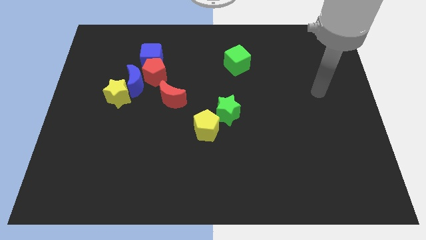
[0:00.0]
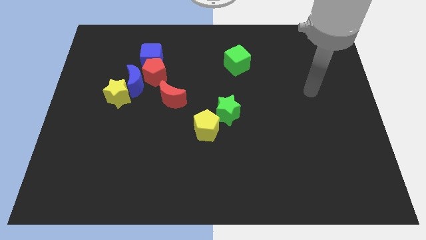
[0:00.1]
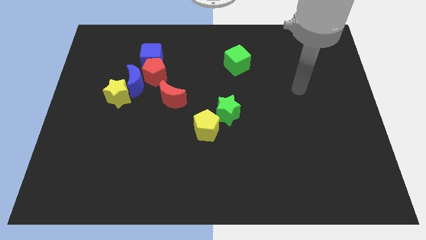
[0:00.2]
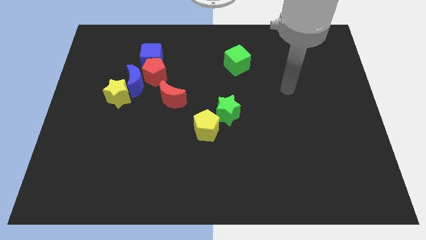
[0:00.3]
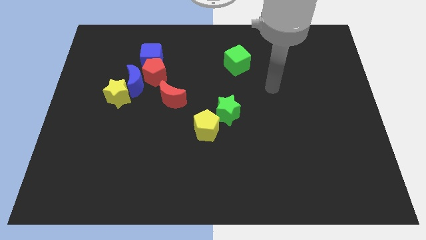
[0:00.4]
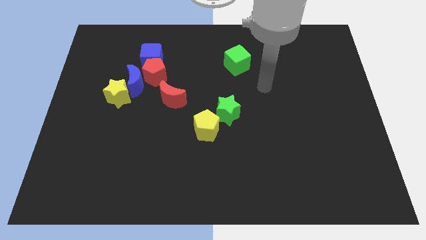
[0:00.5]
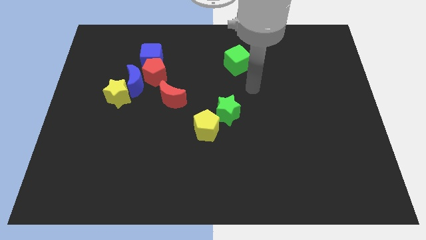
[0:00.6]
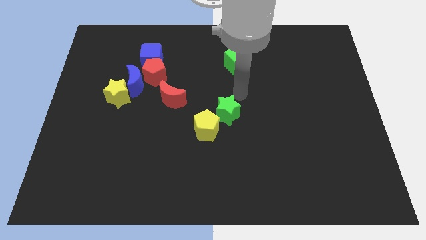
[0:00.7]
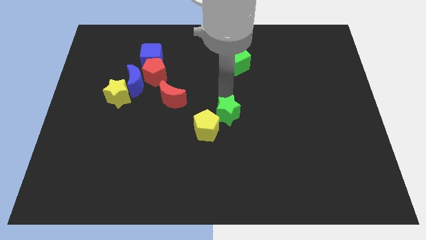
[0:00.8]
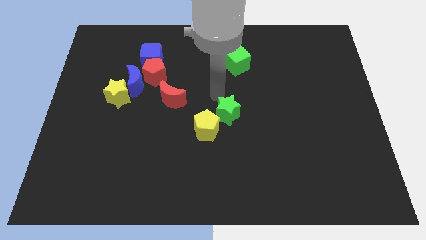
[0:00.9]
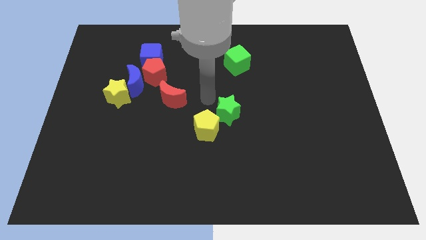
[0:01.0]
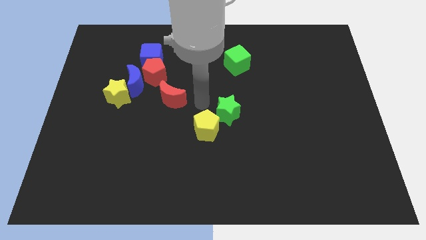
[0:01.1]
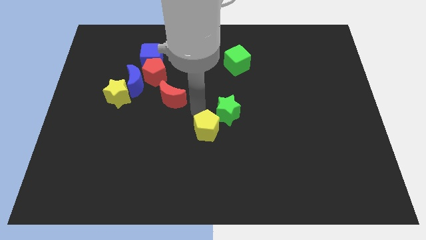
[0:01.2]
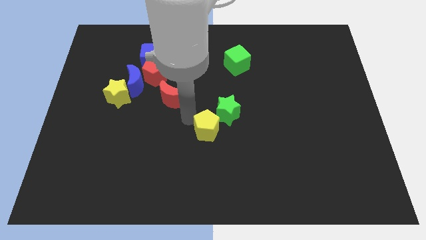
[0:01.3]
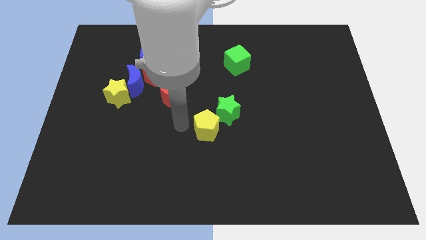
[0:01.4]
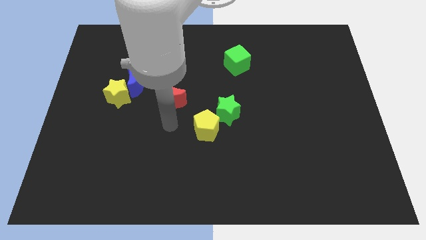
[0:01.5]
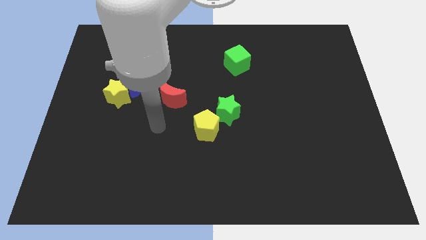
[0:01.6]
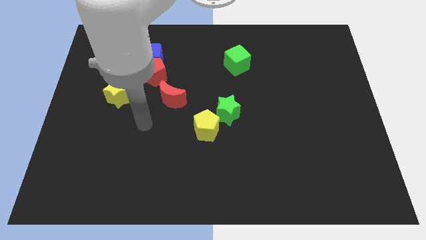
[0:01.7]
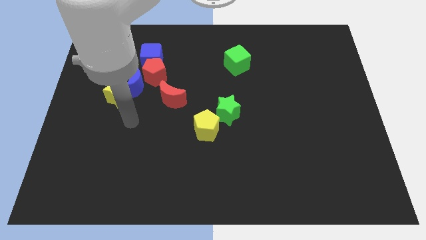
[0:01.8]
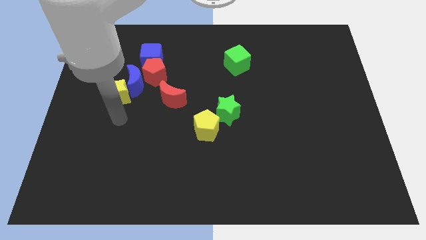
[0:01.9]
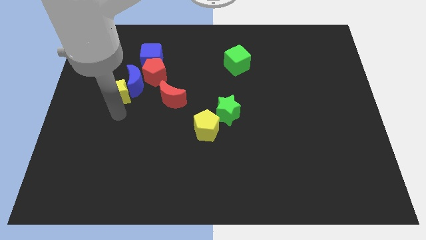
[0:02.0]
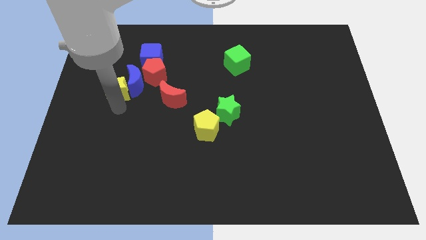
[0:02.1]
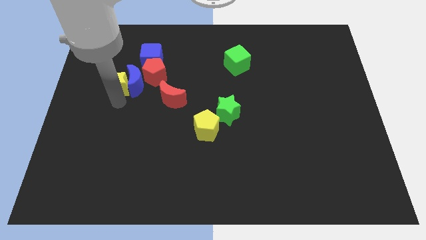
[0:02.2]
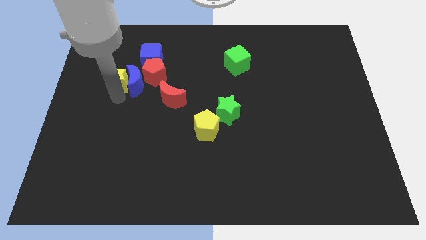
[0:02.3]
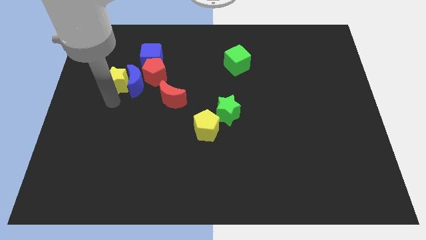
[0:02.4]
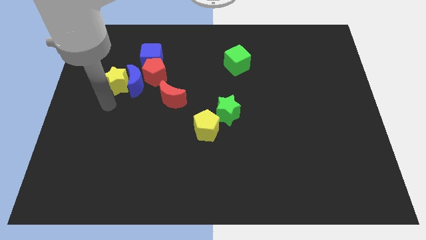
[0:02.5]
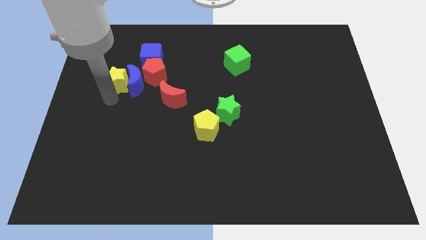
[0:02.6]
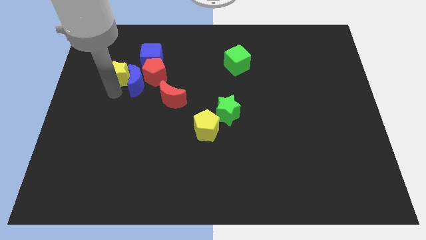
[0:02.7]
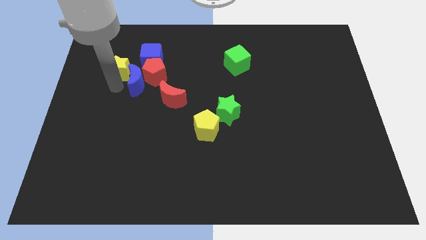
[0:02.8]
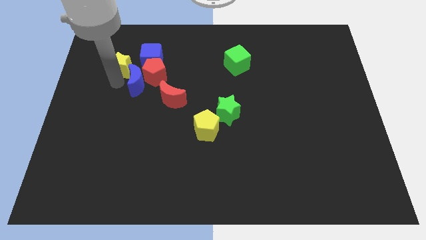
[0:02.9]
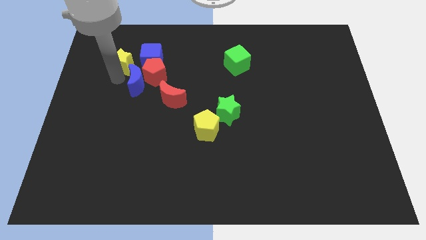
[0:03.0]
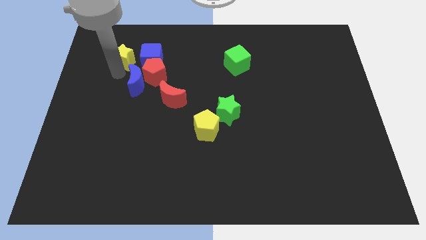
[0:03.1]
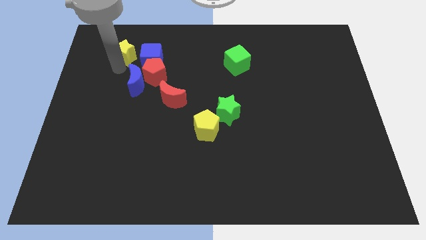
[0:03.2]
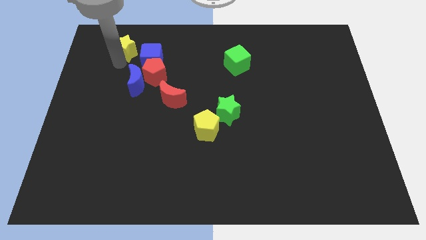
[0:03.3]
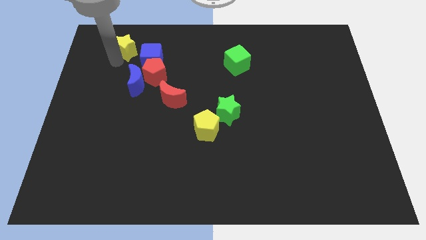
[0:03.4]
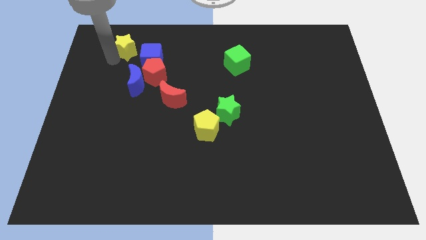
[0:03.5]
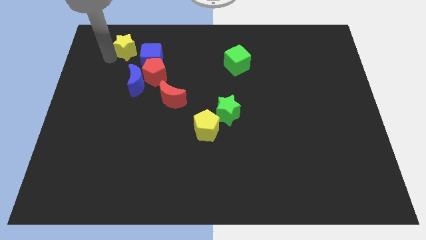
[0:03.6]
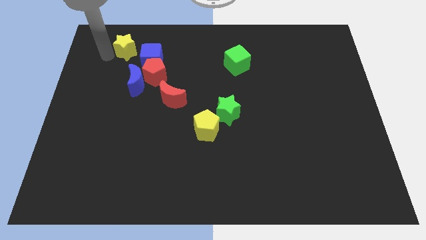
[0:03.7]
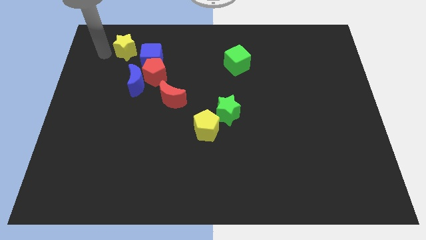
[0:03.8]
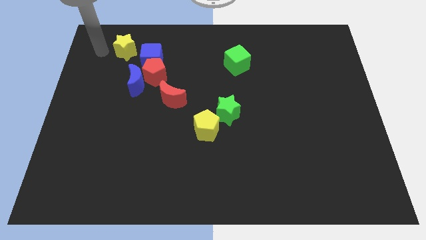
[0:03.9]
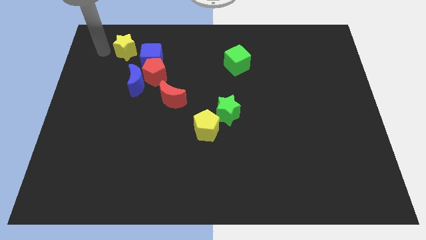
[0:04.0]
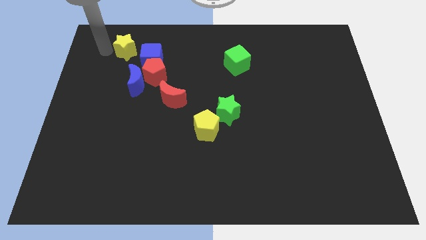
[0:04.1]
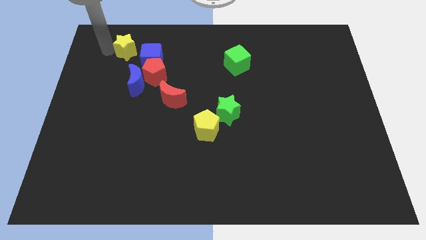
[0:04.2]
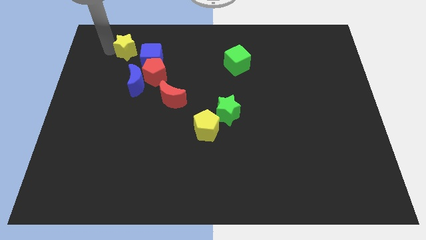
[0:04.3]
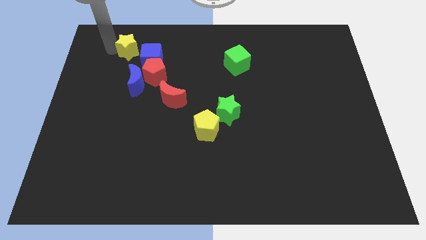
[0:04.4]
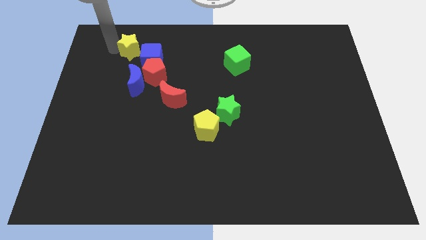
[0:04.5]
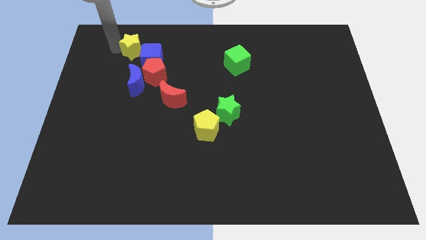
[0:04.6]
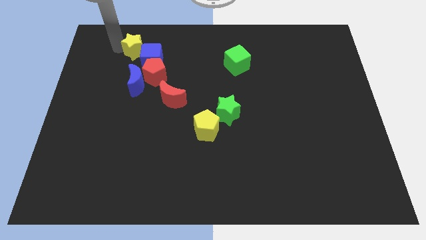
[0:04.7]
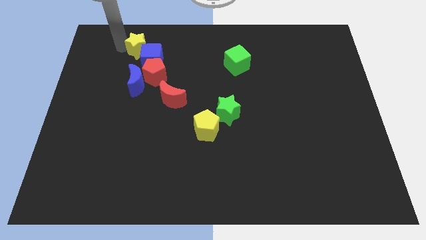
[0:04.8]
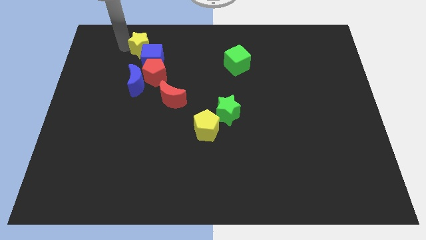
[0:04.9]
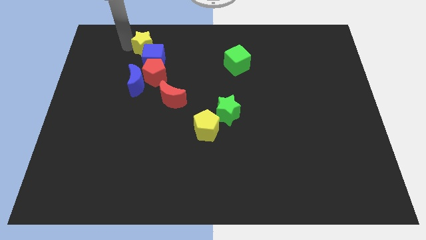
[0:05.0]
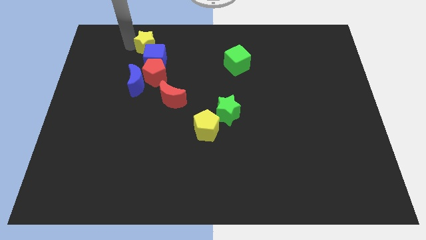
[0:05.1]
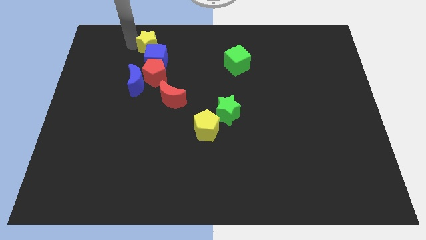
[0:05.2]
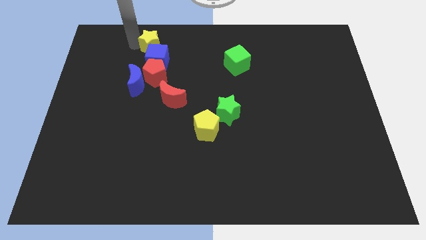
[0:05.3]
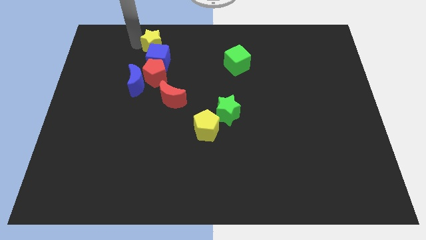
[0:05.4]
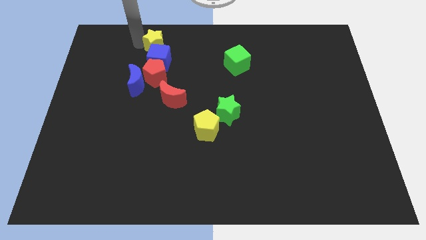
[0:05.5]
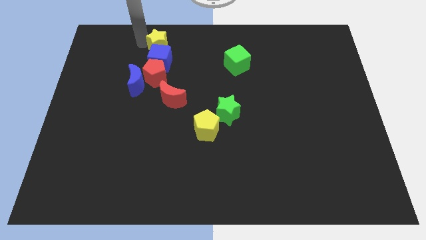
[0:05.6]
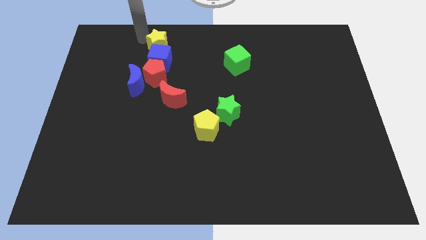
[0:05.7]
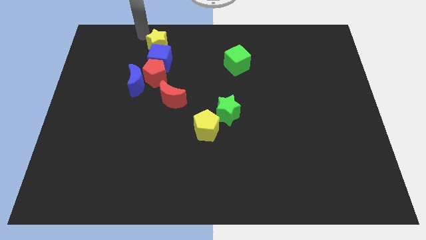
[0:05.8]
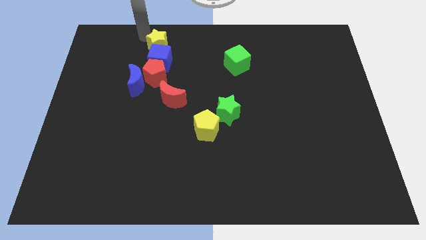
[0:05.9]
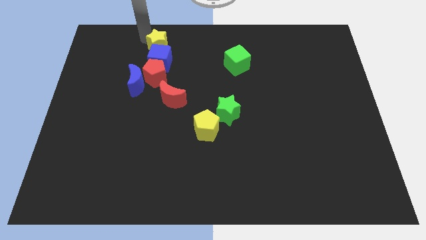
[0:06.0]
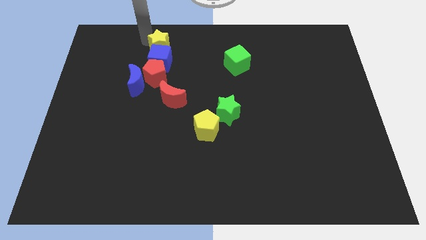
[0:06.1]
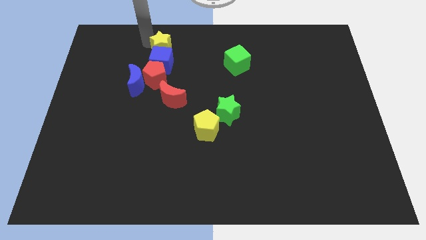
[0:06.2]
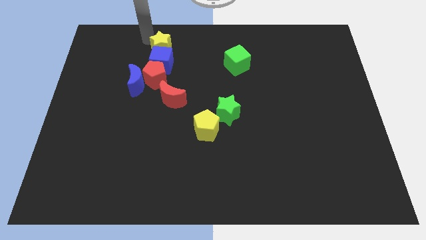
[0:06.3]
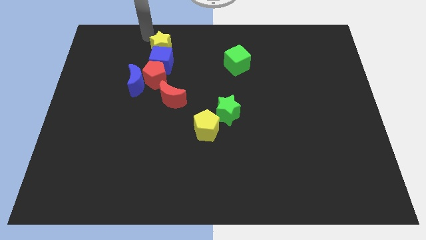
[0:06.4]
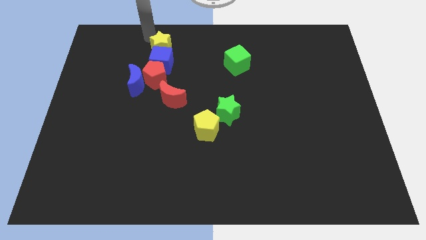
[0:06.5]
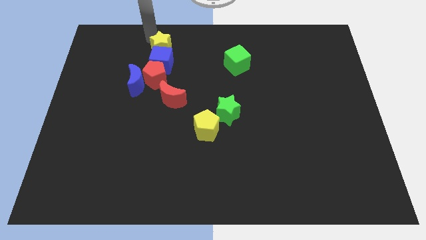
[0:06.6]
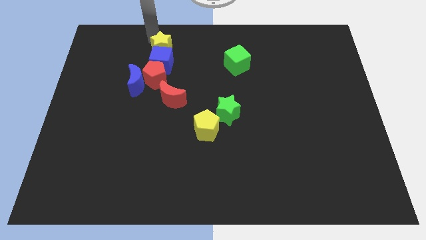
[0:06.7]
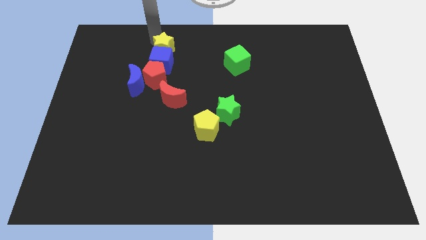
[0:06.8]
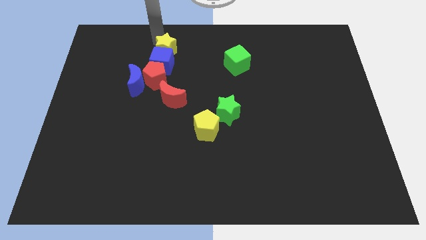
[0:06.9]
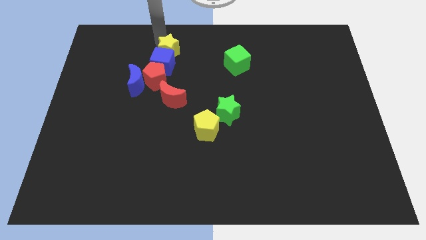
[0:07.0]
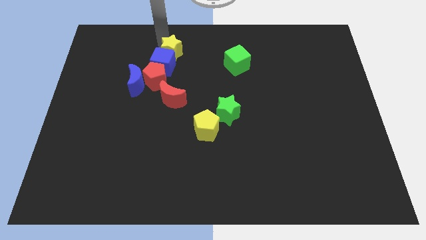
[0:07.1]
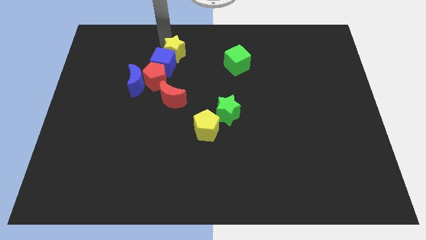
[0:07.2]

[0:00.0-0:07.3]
slide the yellow star to the top right of the red pentagon
